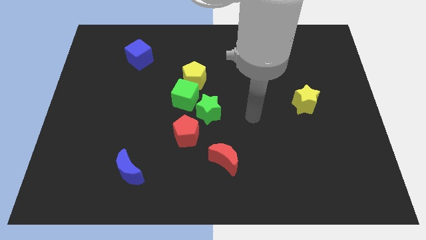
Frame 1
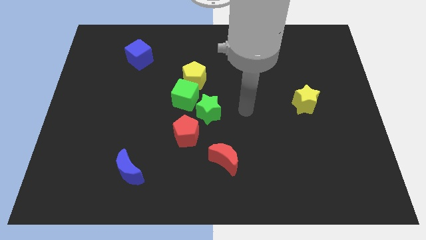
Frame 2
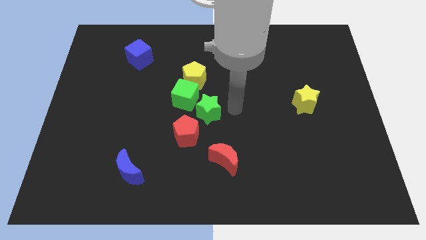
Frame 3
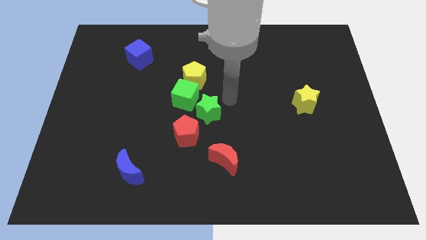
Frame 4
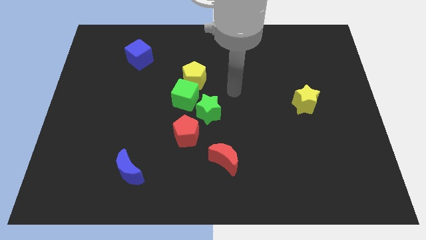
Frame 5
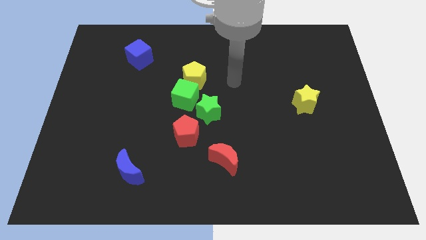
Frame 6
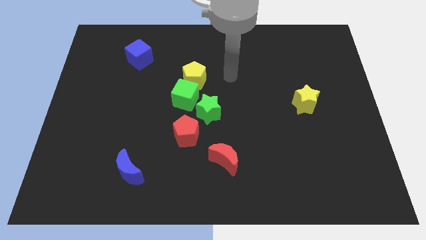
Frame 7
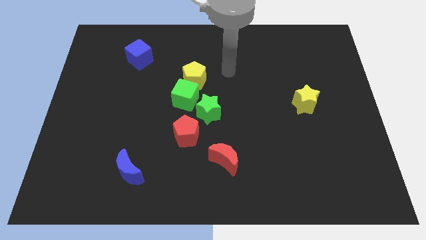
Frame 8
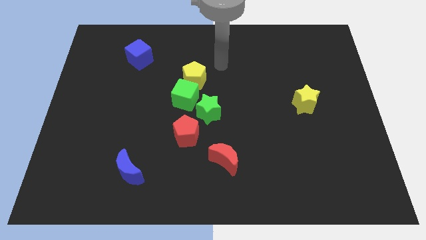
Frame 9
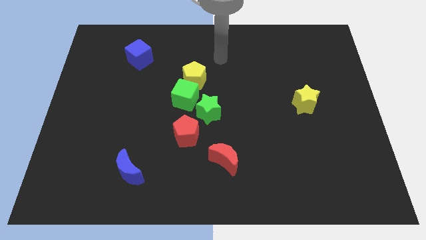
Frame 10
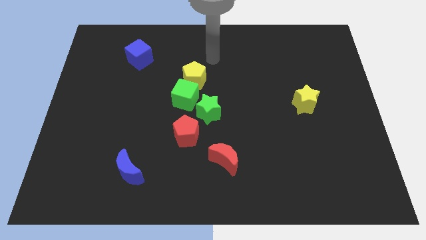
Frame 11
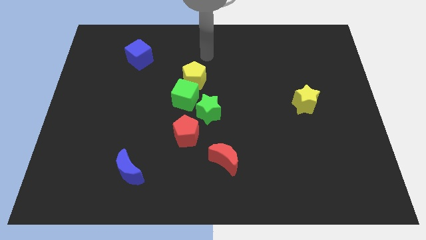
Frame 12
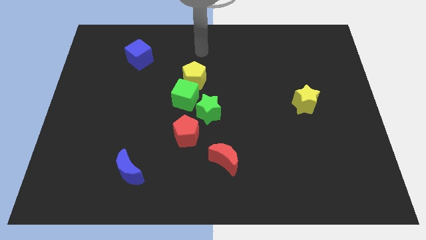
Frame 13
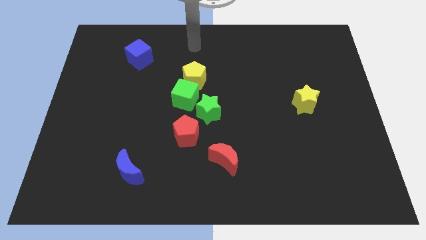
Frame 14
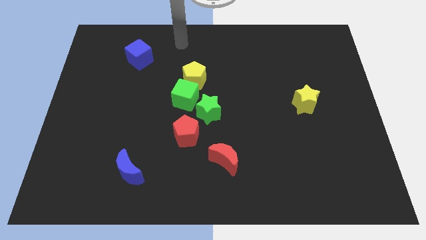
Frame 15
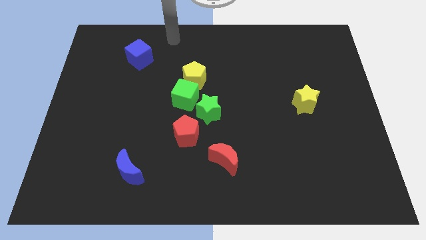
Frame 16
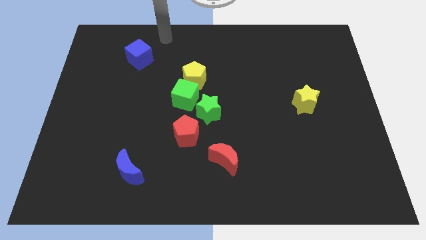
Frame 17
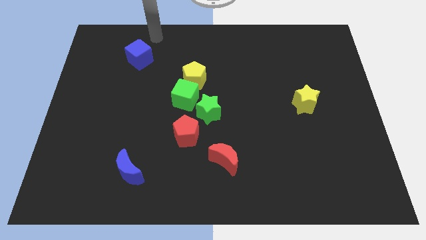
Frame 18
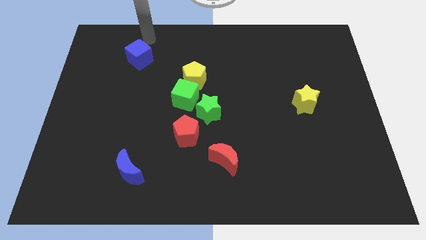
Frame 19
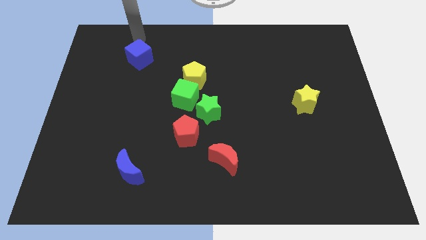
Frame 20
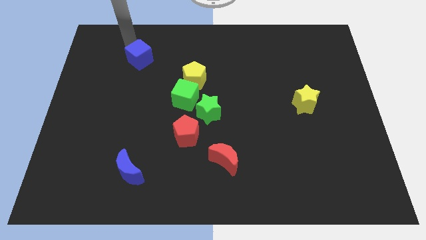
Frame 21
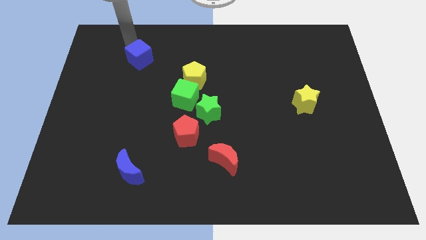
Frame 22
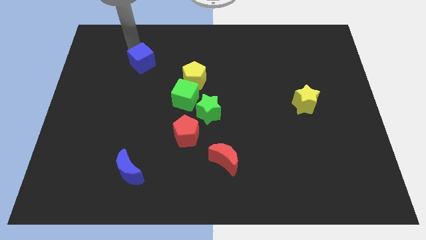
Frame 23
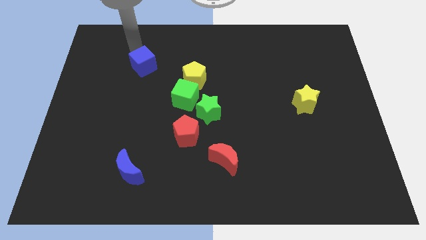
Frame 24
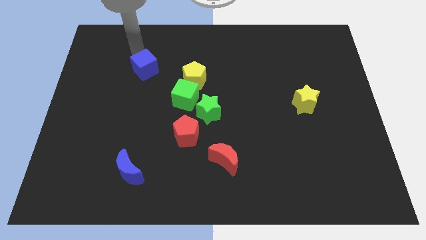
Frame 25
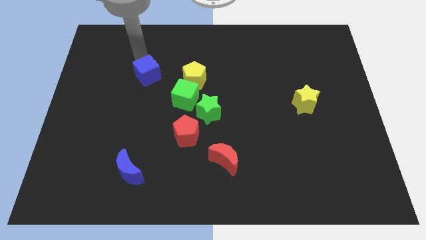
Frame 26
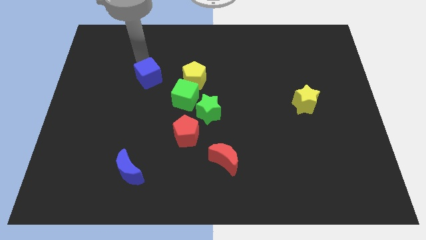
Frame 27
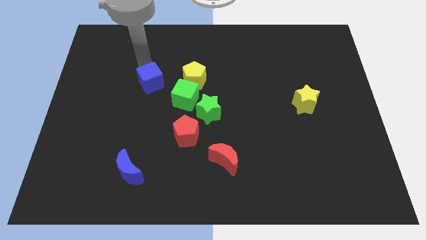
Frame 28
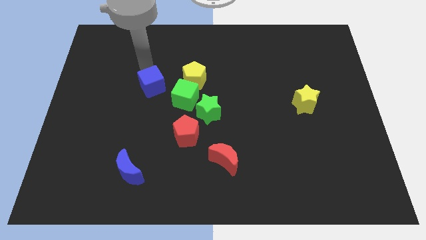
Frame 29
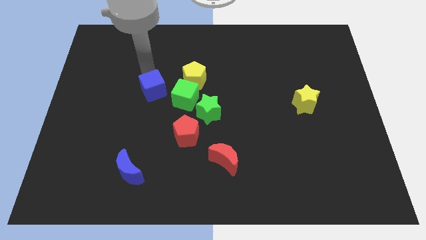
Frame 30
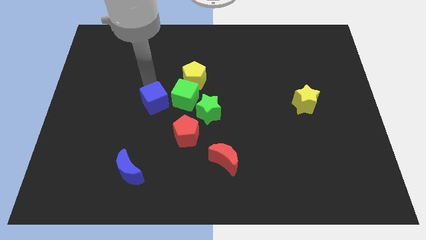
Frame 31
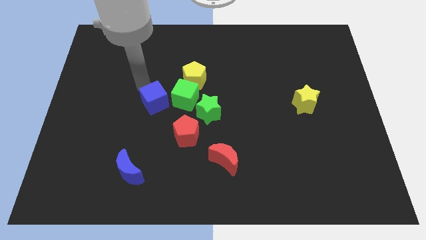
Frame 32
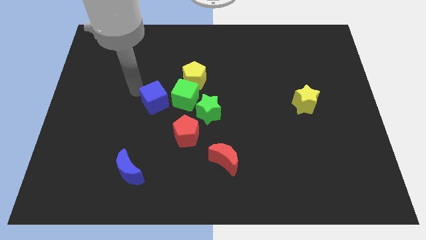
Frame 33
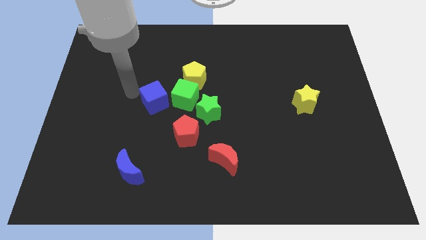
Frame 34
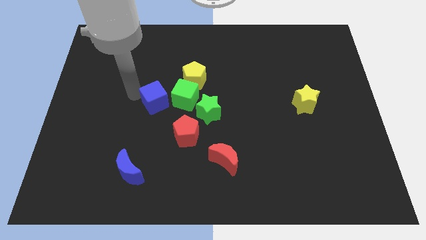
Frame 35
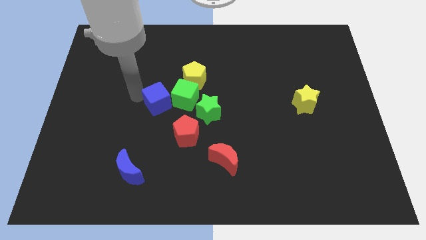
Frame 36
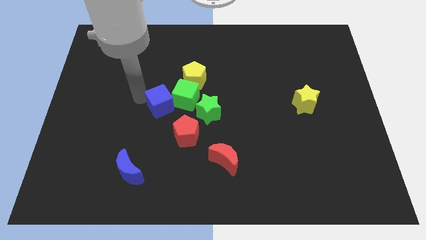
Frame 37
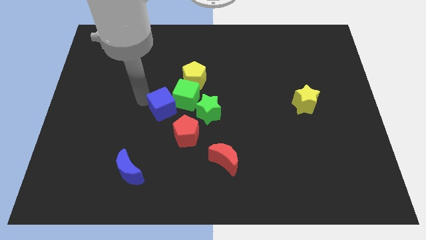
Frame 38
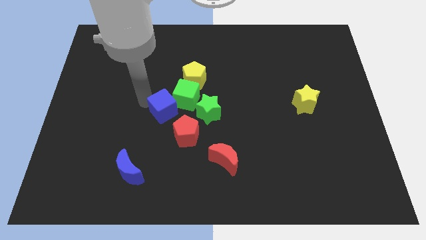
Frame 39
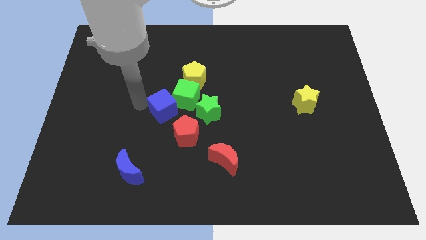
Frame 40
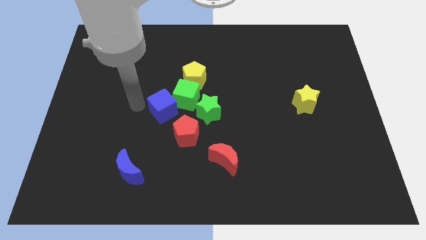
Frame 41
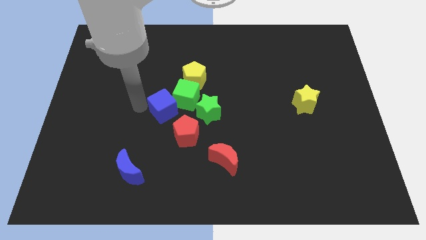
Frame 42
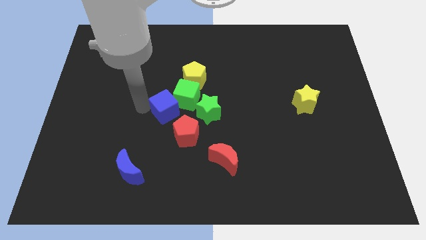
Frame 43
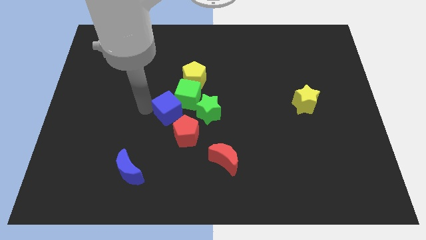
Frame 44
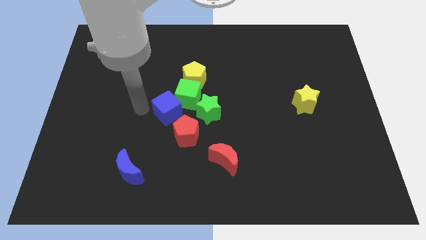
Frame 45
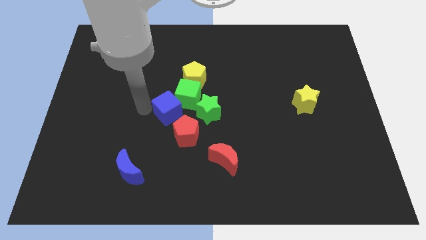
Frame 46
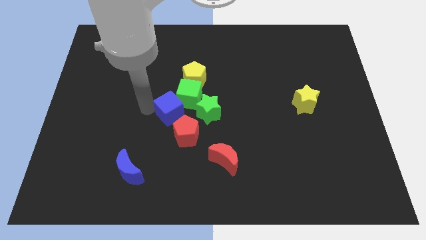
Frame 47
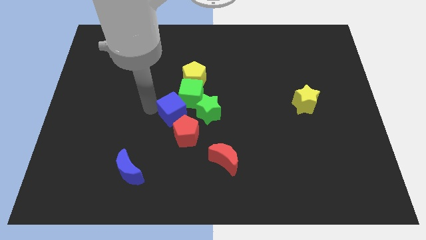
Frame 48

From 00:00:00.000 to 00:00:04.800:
push the blue cube below the yellow pentagon

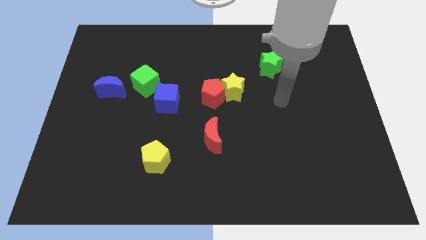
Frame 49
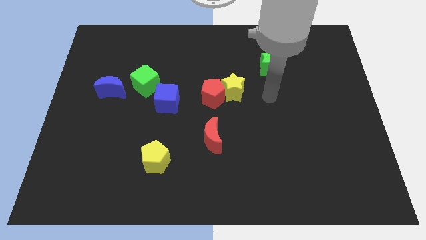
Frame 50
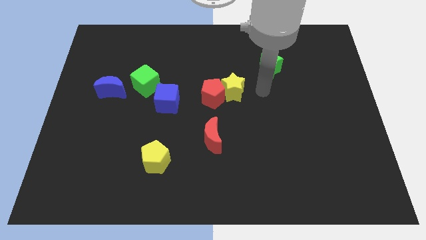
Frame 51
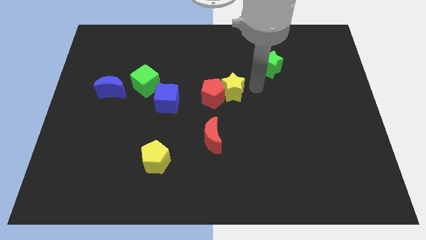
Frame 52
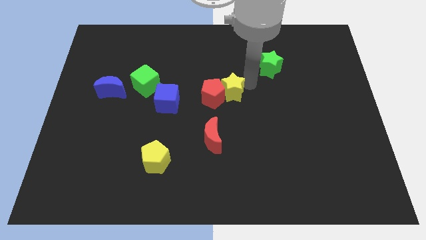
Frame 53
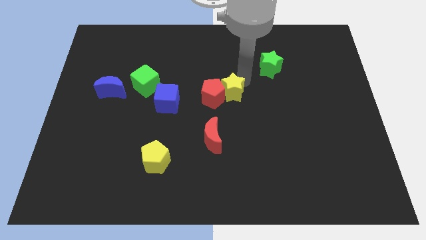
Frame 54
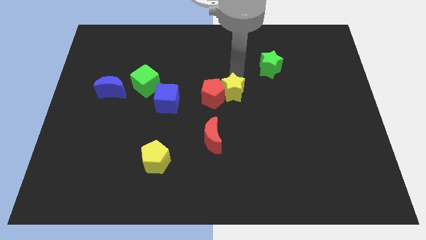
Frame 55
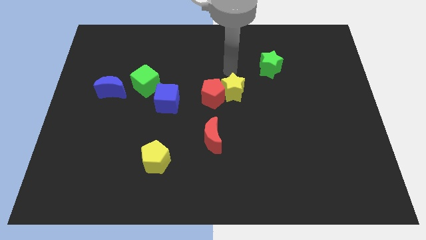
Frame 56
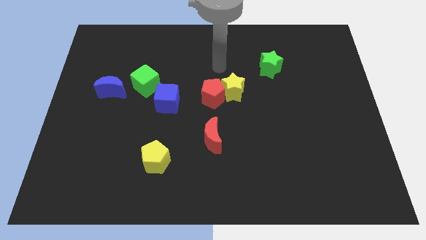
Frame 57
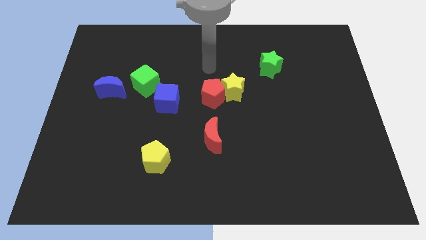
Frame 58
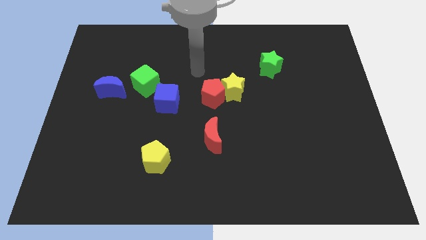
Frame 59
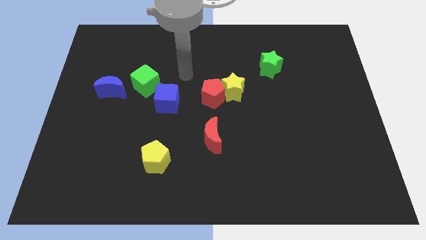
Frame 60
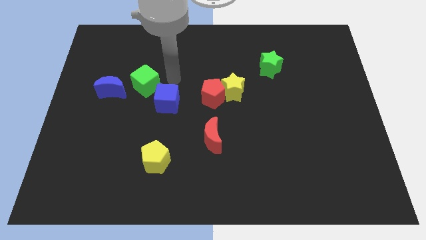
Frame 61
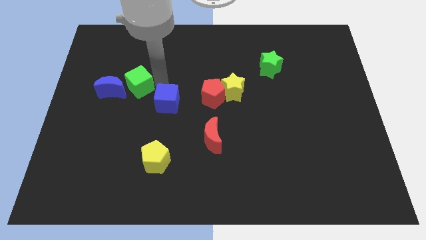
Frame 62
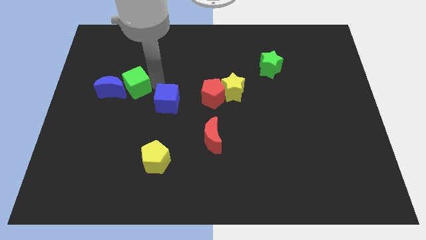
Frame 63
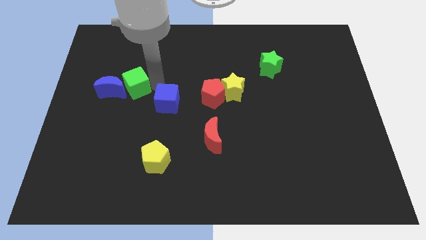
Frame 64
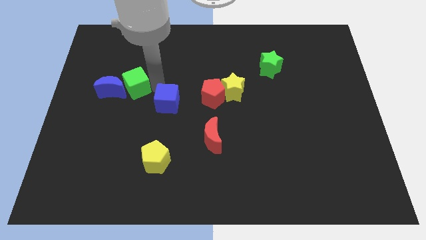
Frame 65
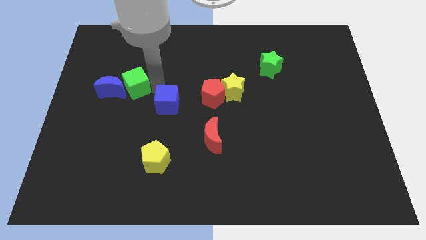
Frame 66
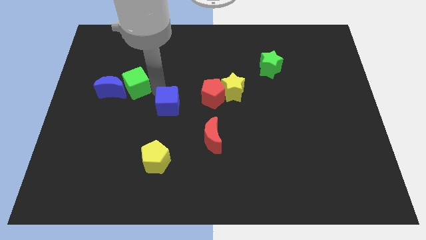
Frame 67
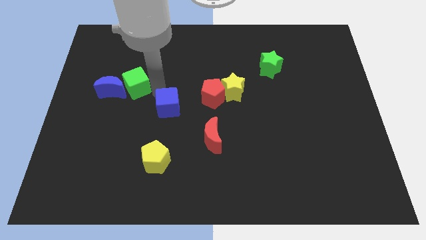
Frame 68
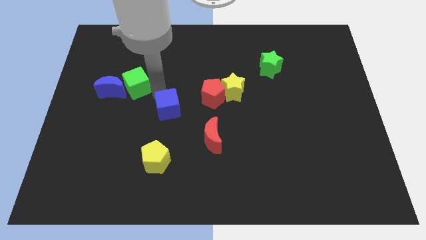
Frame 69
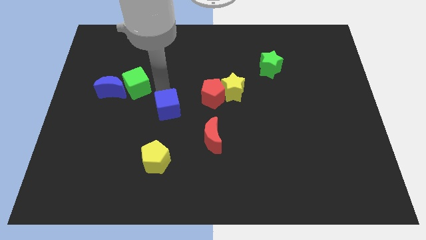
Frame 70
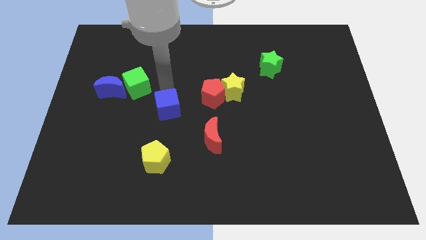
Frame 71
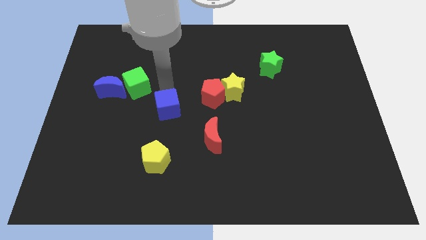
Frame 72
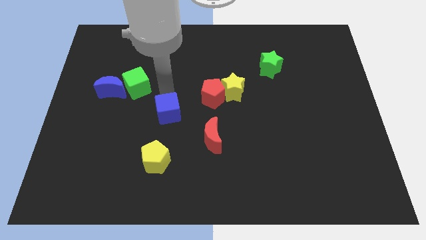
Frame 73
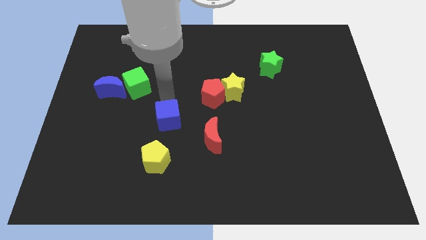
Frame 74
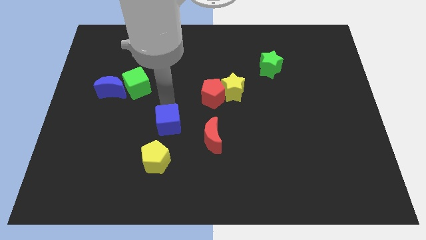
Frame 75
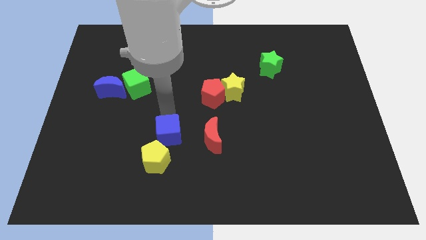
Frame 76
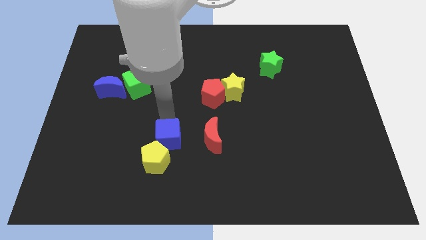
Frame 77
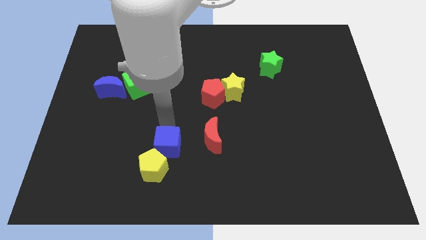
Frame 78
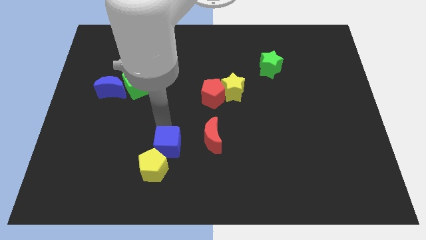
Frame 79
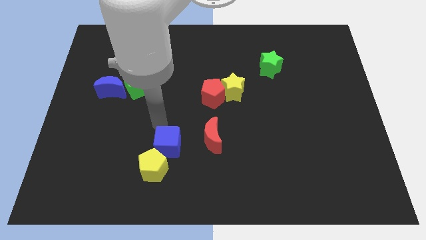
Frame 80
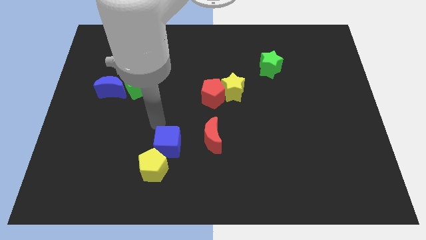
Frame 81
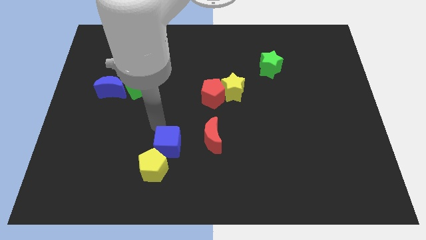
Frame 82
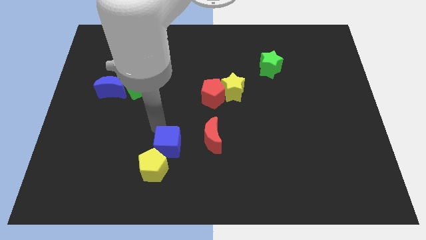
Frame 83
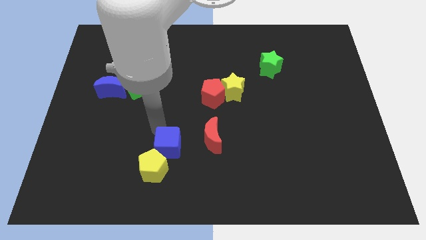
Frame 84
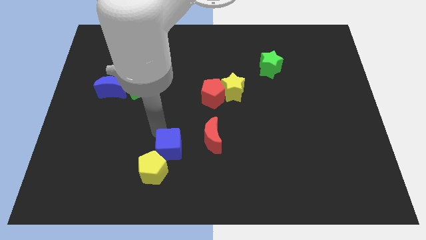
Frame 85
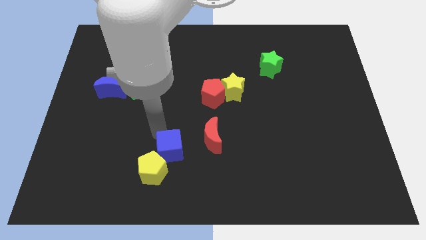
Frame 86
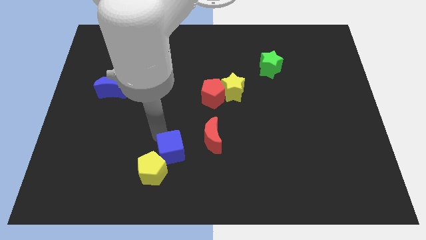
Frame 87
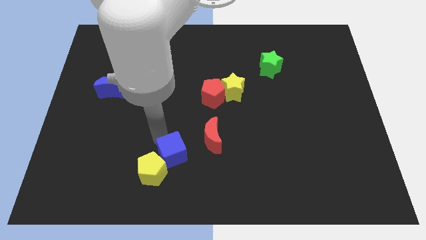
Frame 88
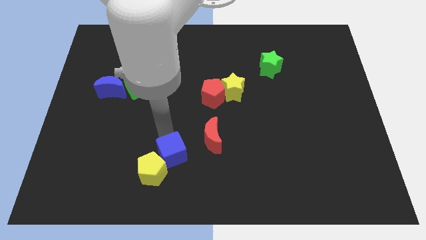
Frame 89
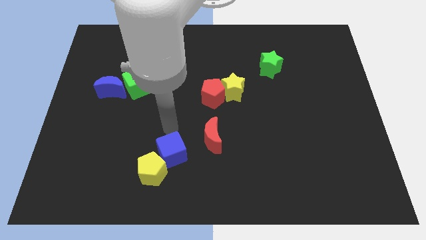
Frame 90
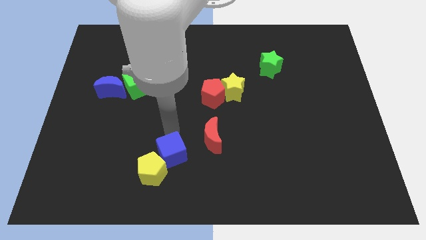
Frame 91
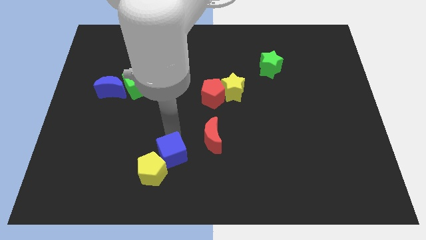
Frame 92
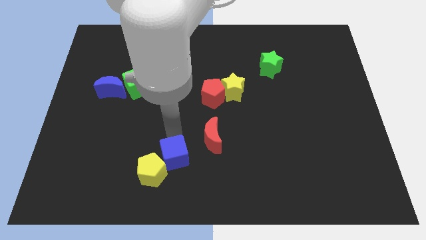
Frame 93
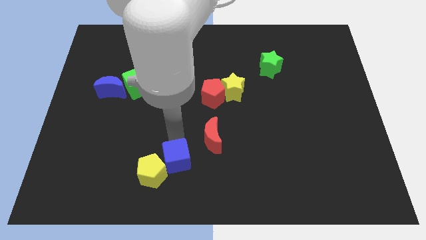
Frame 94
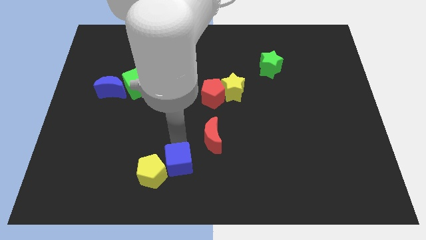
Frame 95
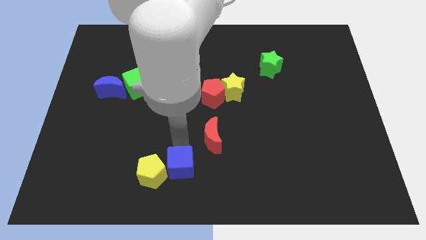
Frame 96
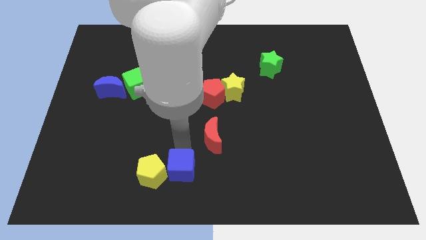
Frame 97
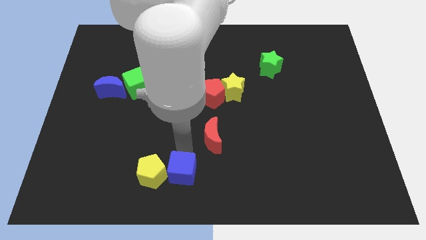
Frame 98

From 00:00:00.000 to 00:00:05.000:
put the blue cube to the bottom right side of the yellow pentagon
